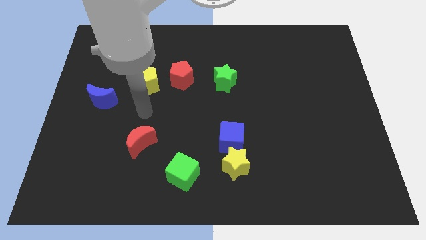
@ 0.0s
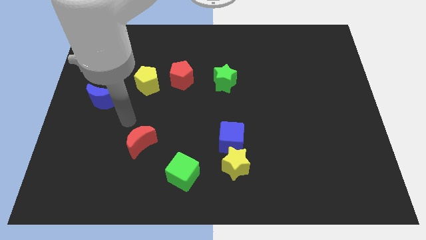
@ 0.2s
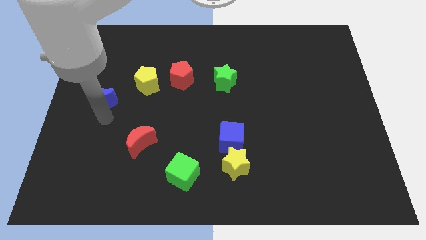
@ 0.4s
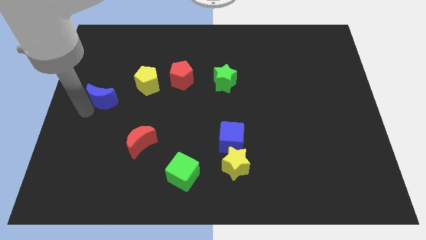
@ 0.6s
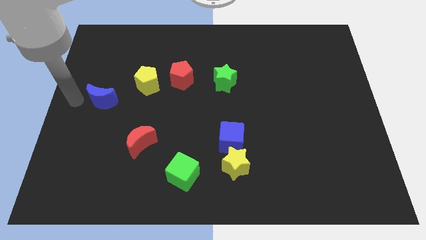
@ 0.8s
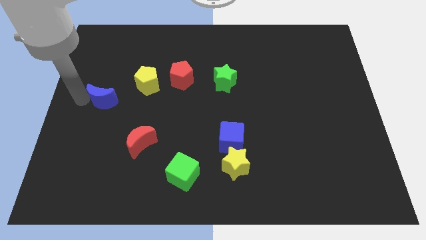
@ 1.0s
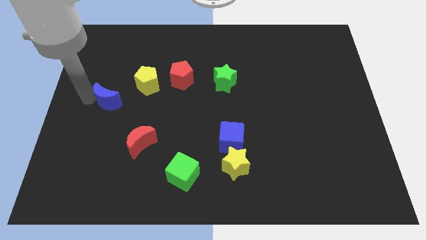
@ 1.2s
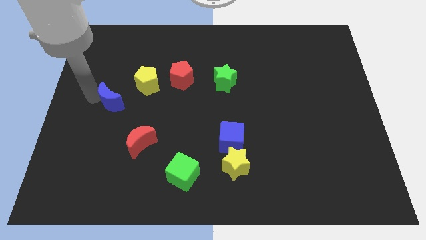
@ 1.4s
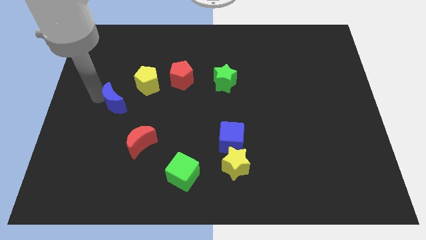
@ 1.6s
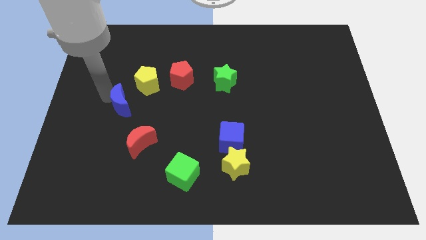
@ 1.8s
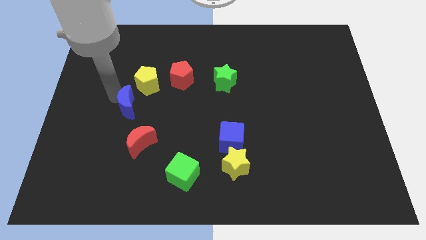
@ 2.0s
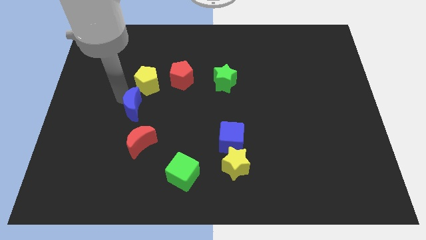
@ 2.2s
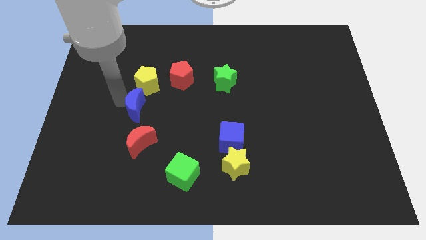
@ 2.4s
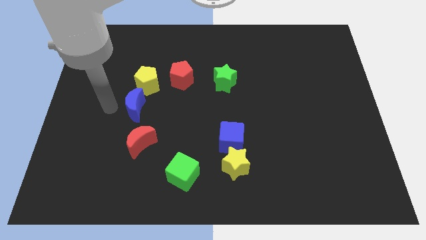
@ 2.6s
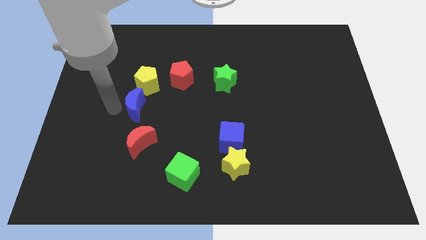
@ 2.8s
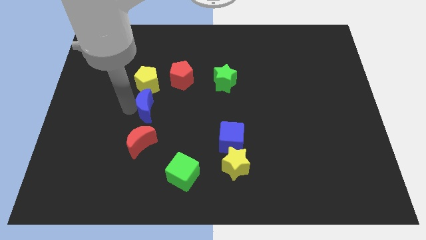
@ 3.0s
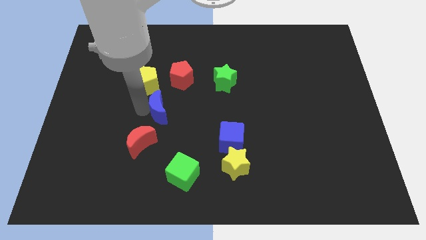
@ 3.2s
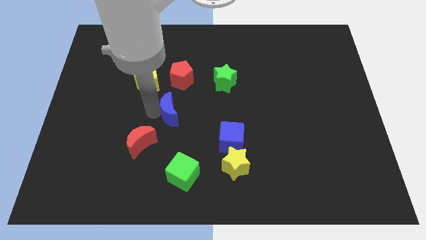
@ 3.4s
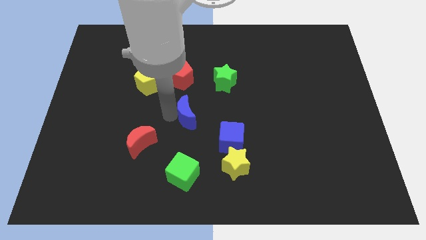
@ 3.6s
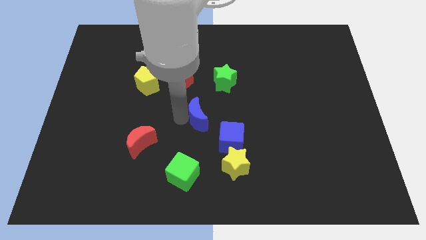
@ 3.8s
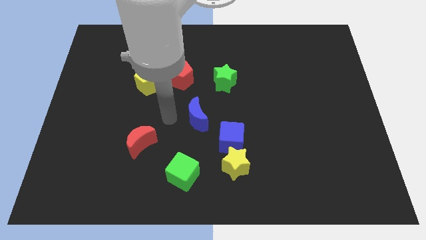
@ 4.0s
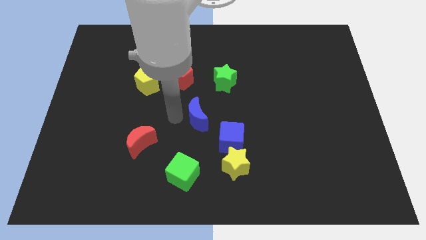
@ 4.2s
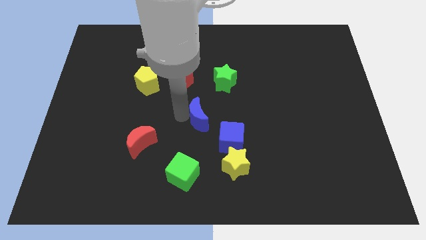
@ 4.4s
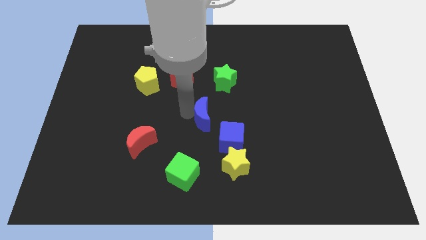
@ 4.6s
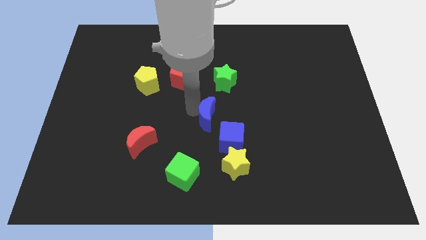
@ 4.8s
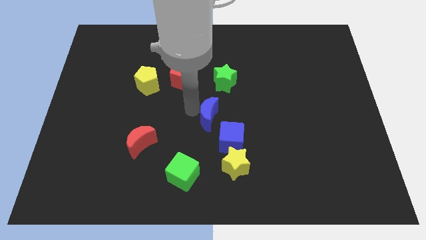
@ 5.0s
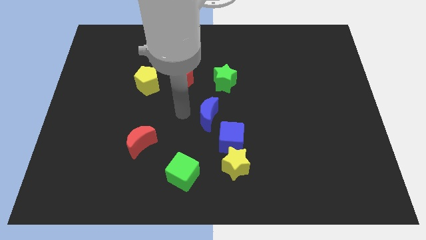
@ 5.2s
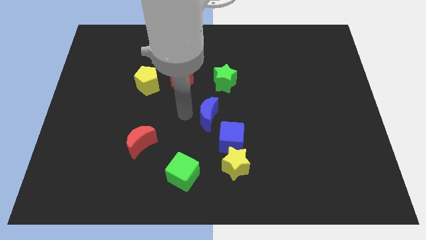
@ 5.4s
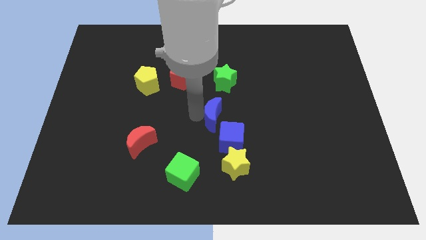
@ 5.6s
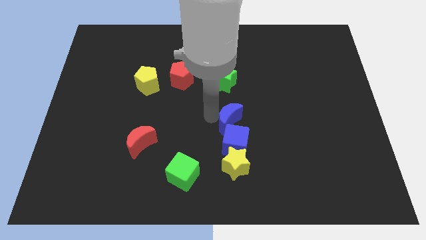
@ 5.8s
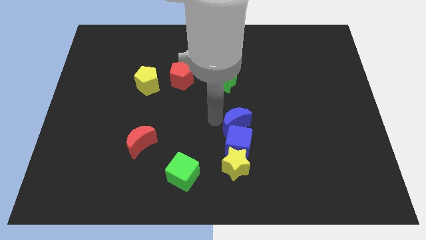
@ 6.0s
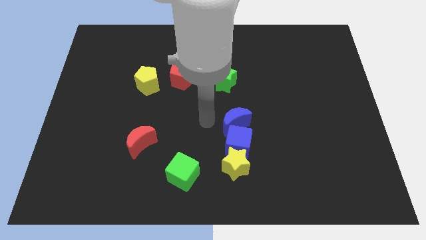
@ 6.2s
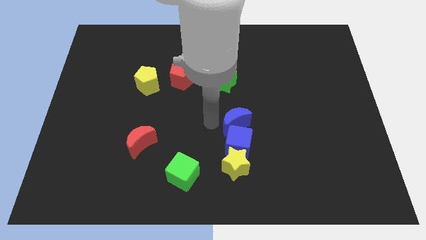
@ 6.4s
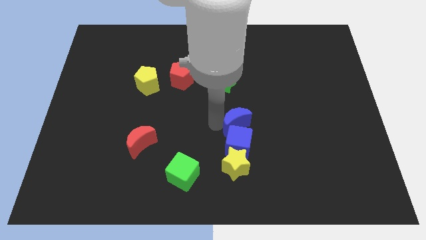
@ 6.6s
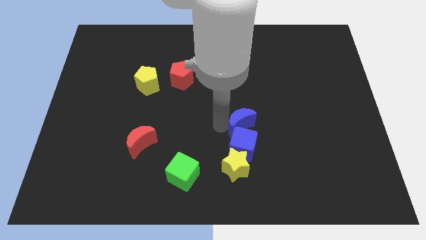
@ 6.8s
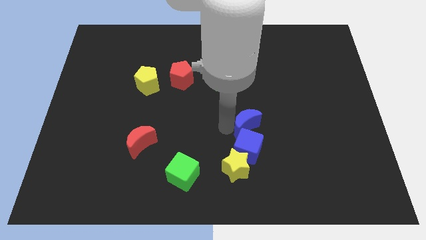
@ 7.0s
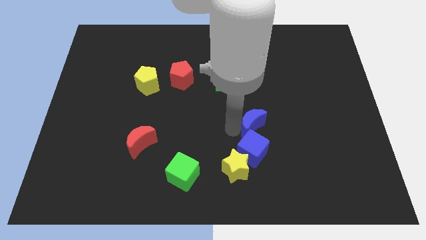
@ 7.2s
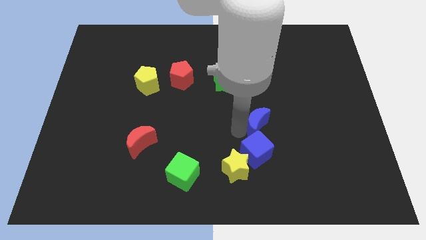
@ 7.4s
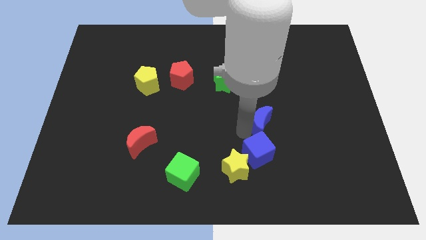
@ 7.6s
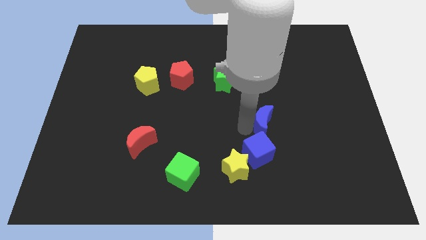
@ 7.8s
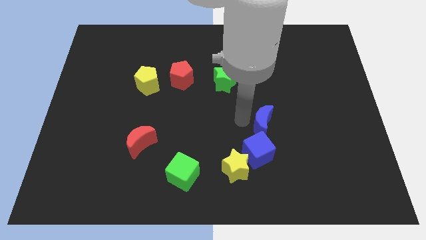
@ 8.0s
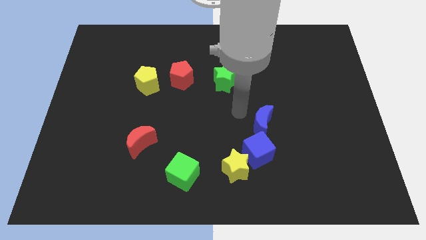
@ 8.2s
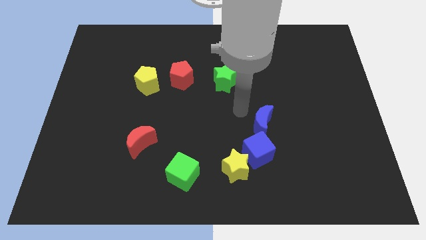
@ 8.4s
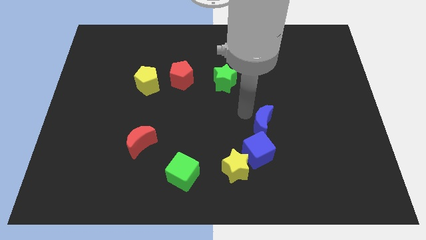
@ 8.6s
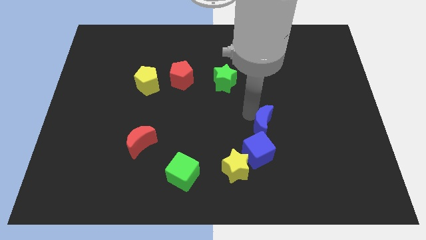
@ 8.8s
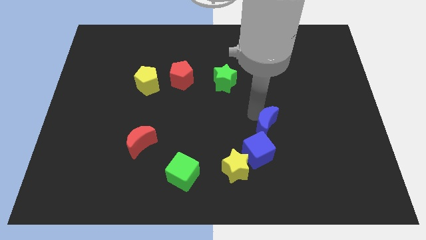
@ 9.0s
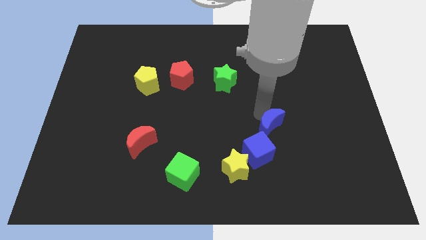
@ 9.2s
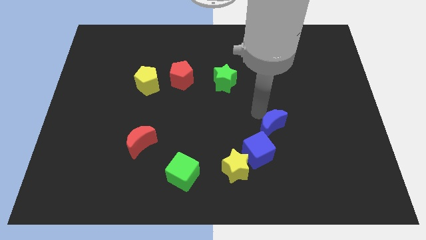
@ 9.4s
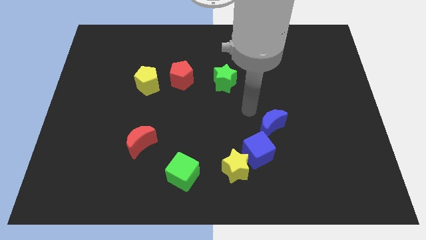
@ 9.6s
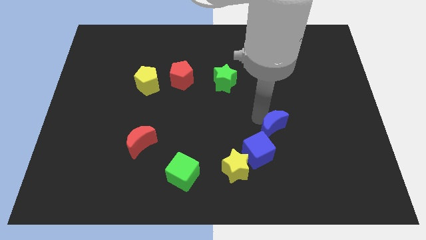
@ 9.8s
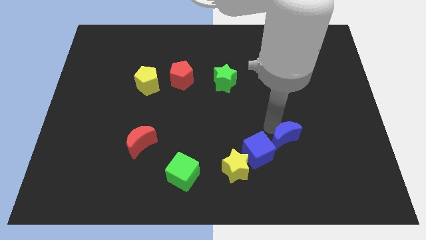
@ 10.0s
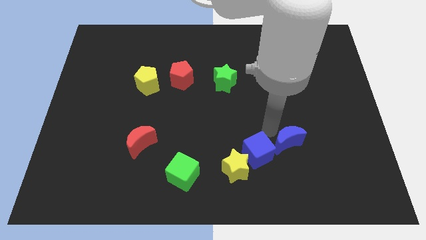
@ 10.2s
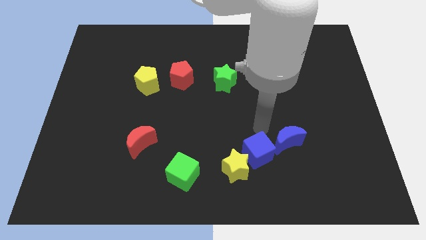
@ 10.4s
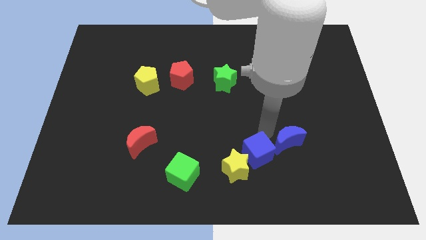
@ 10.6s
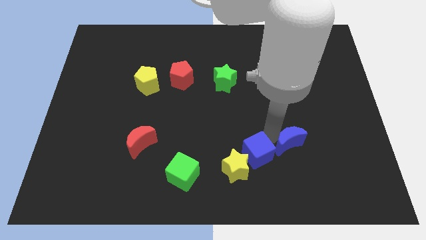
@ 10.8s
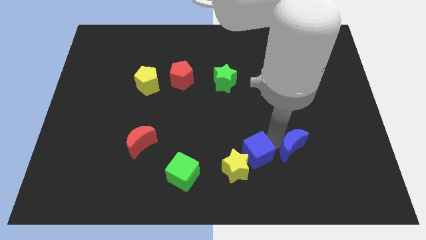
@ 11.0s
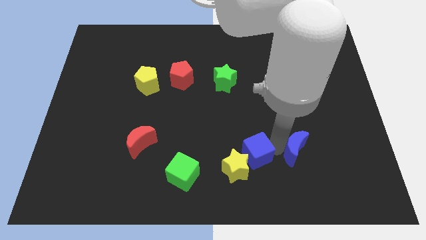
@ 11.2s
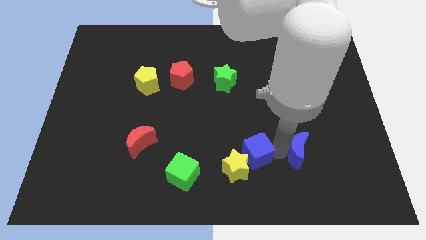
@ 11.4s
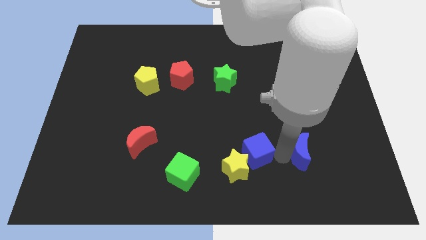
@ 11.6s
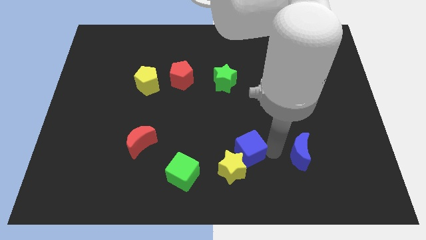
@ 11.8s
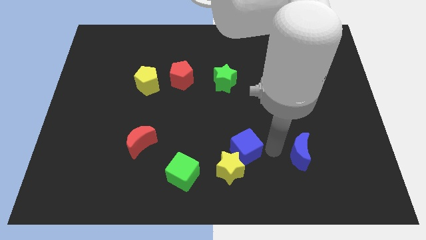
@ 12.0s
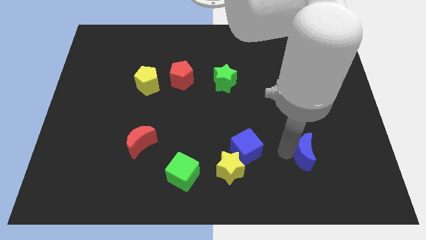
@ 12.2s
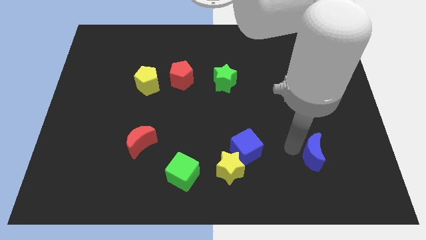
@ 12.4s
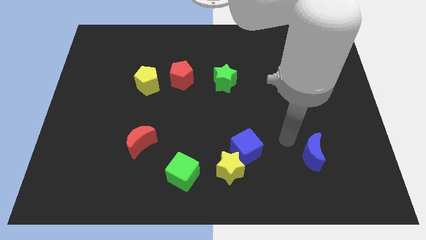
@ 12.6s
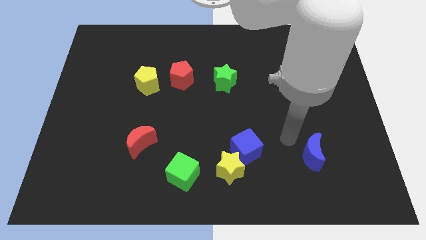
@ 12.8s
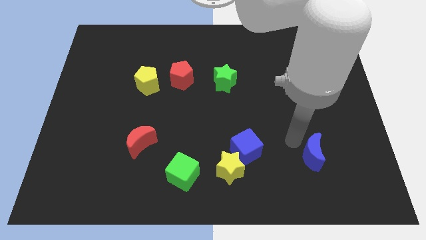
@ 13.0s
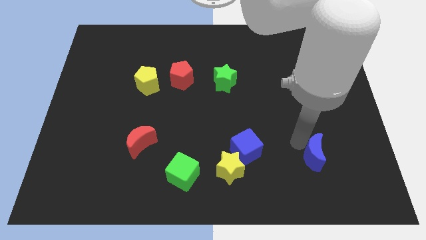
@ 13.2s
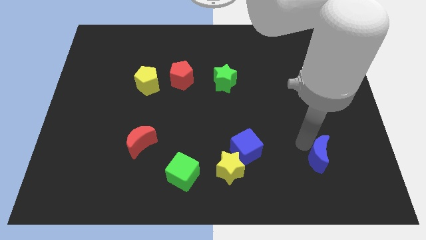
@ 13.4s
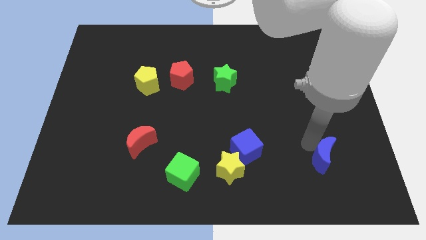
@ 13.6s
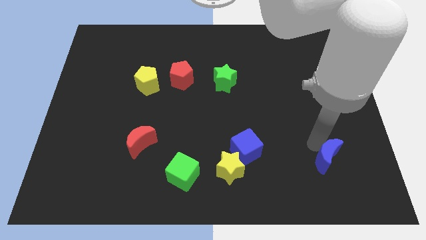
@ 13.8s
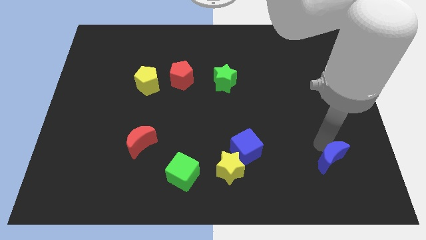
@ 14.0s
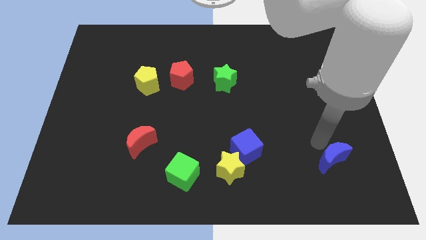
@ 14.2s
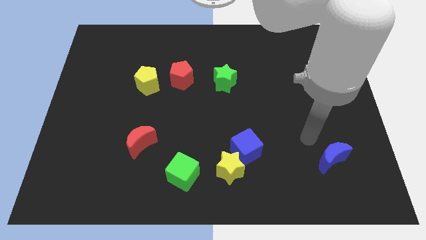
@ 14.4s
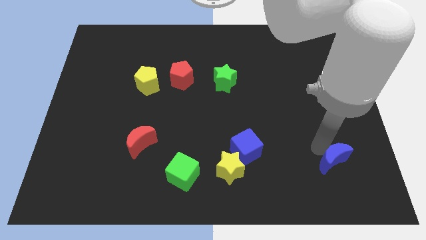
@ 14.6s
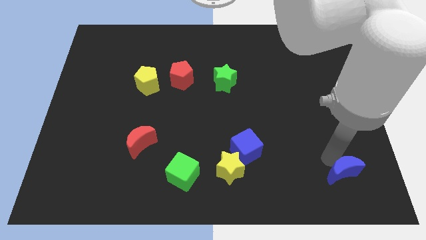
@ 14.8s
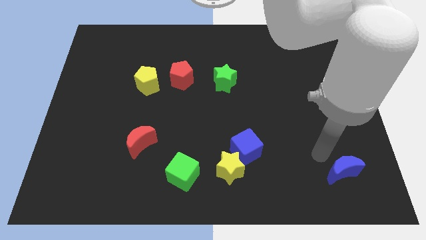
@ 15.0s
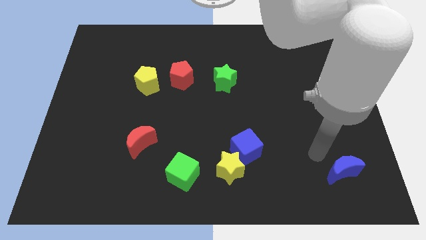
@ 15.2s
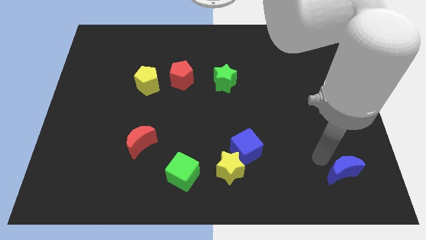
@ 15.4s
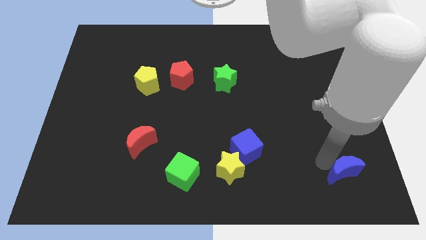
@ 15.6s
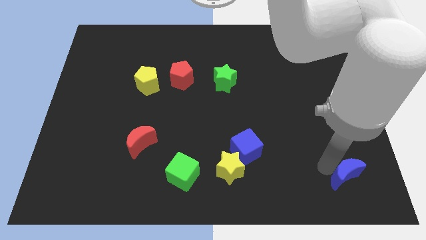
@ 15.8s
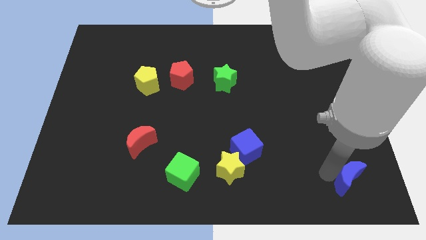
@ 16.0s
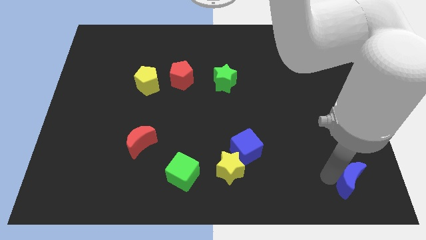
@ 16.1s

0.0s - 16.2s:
move the blue moon to the bottom right
